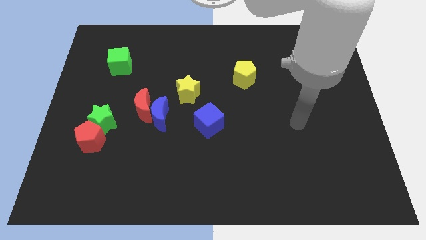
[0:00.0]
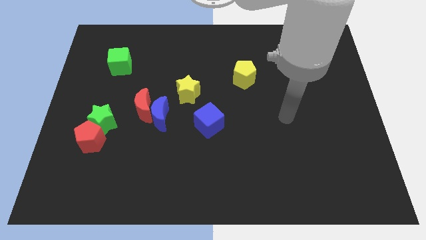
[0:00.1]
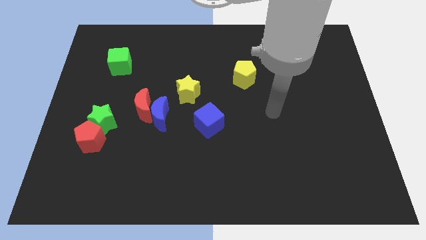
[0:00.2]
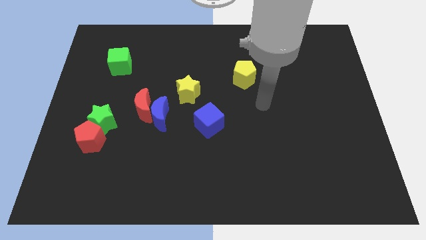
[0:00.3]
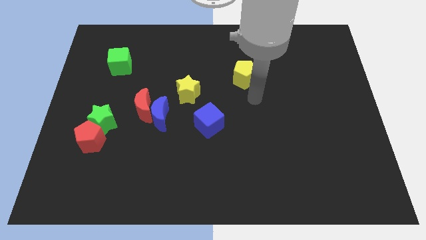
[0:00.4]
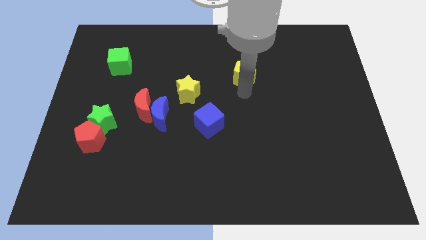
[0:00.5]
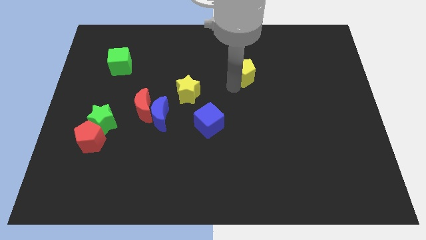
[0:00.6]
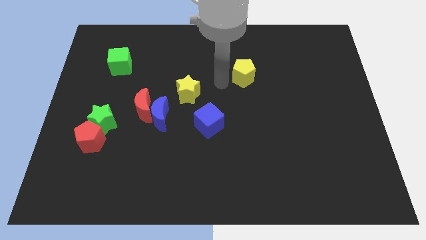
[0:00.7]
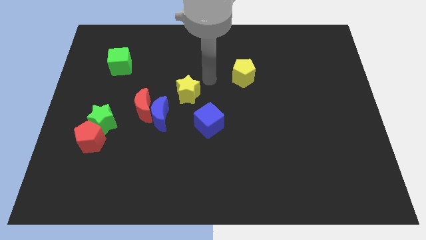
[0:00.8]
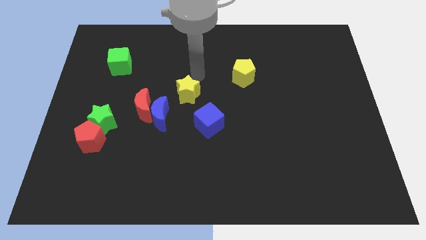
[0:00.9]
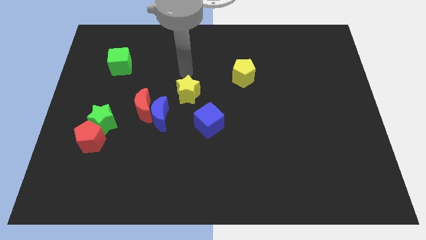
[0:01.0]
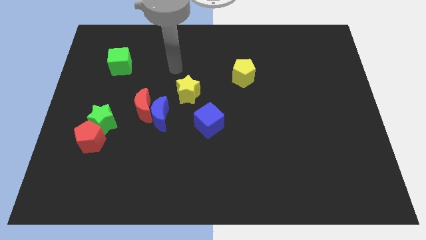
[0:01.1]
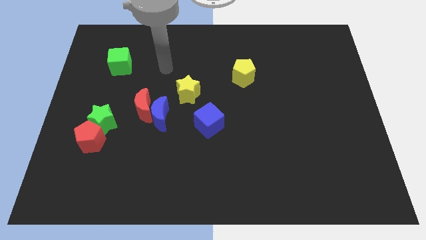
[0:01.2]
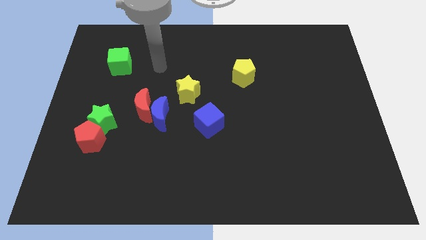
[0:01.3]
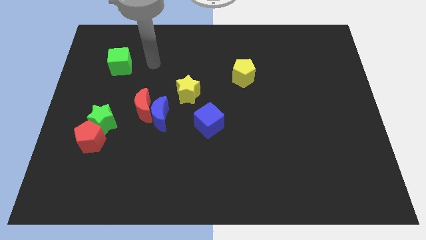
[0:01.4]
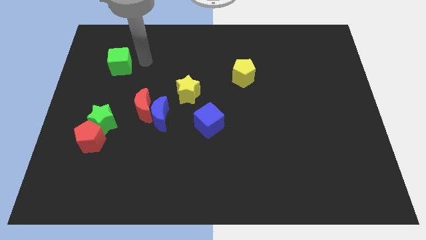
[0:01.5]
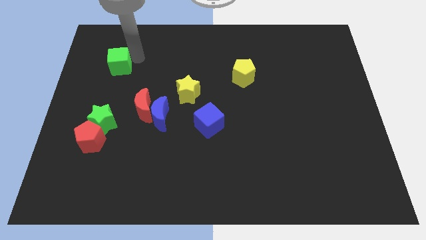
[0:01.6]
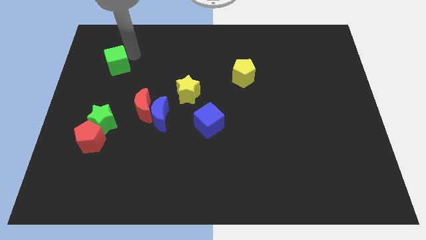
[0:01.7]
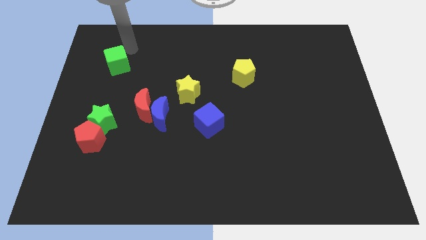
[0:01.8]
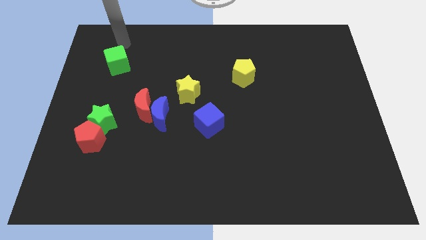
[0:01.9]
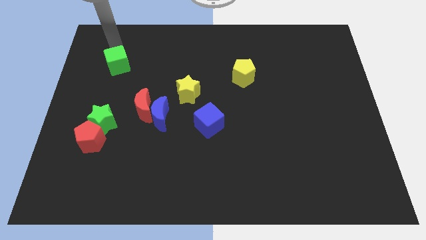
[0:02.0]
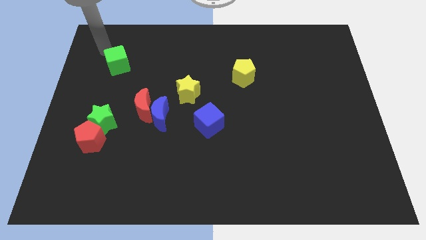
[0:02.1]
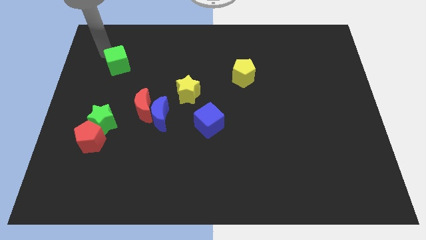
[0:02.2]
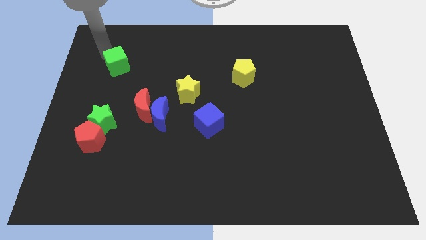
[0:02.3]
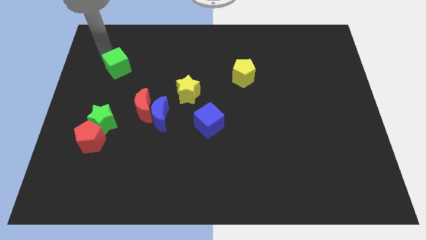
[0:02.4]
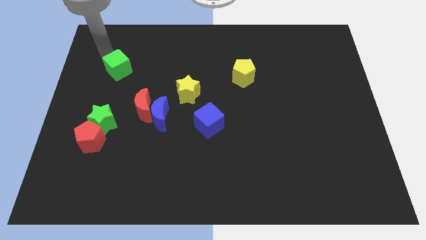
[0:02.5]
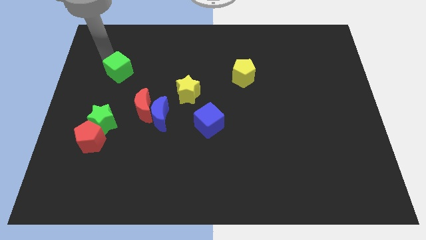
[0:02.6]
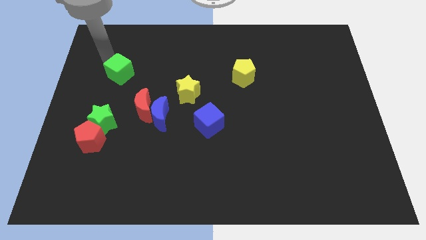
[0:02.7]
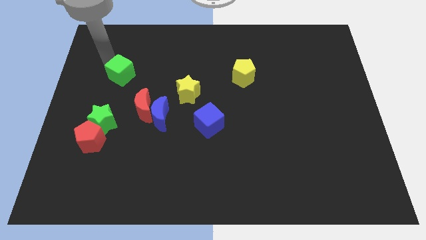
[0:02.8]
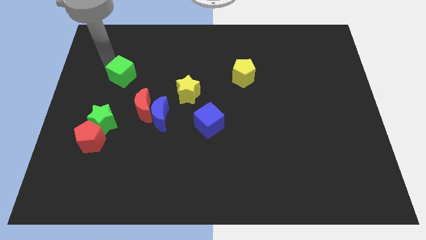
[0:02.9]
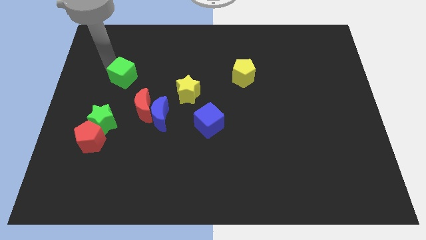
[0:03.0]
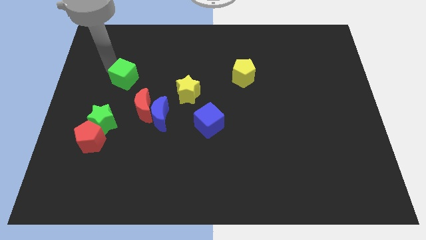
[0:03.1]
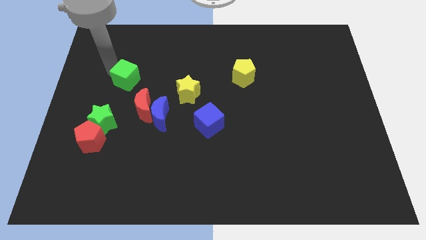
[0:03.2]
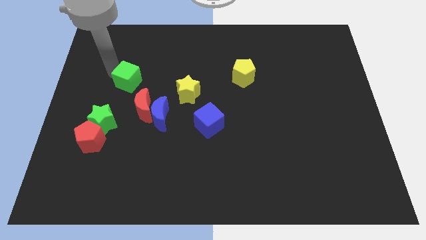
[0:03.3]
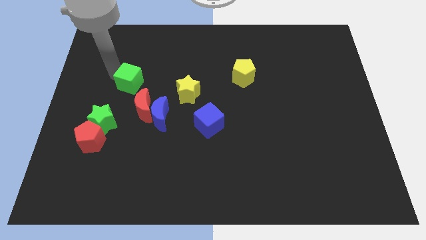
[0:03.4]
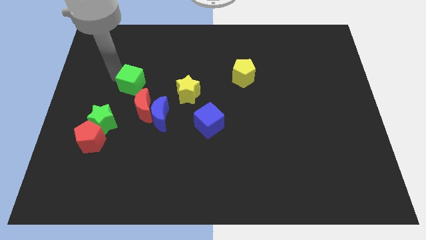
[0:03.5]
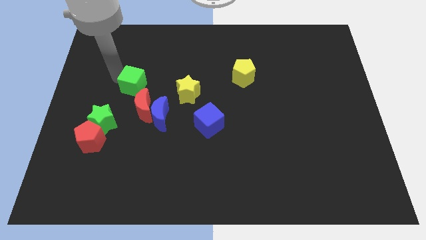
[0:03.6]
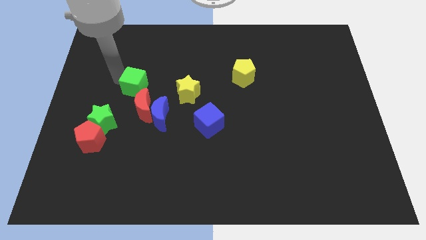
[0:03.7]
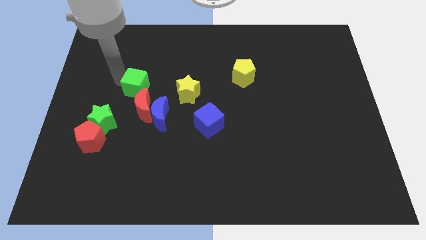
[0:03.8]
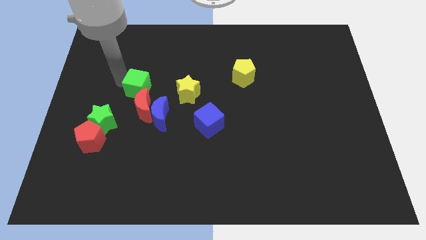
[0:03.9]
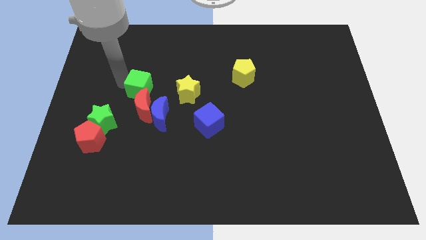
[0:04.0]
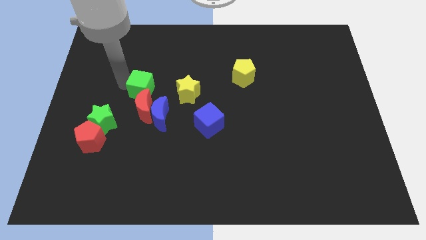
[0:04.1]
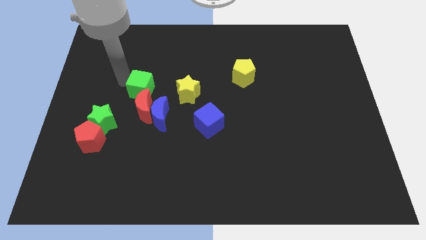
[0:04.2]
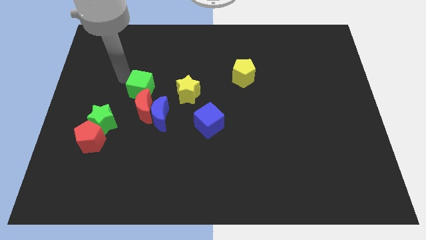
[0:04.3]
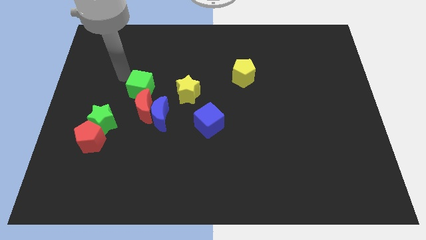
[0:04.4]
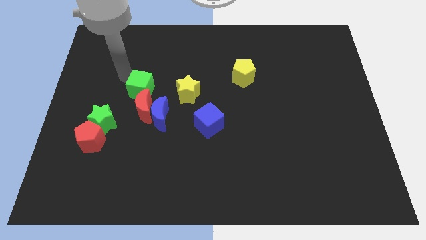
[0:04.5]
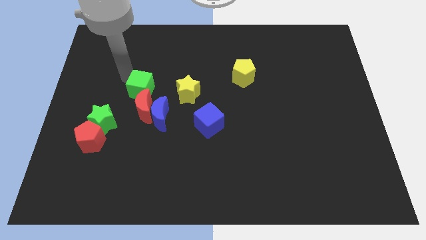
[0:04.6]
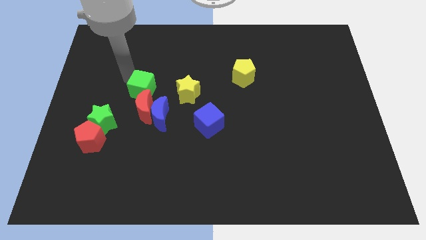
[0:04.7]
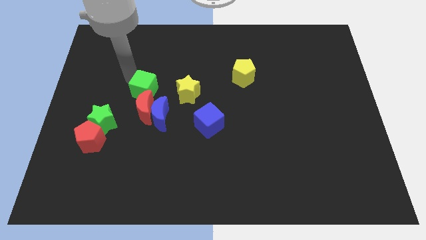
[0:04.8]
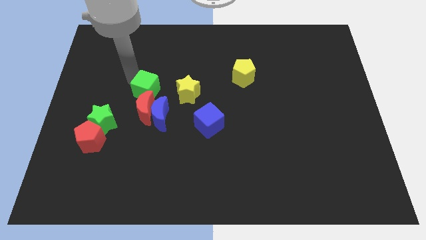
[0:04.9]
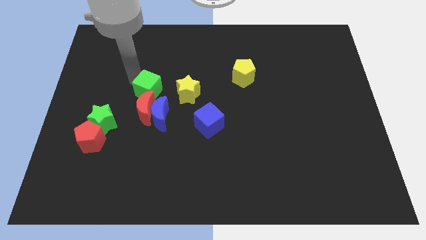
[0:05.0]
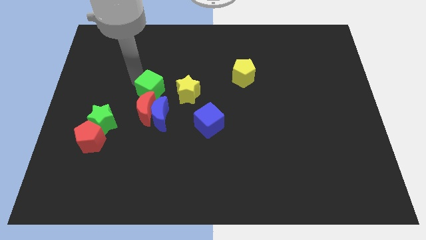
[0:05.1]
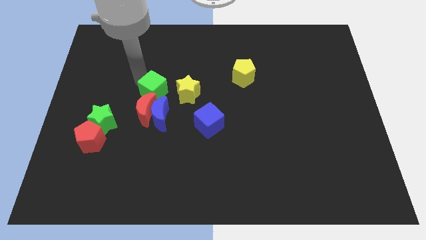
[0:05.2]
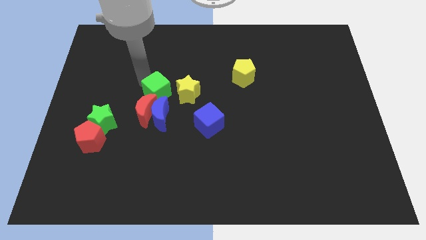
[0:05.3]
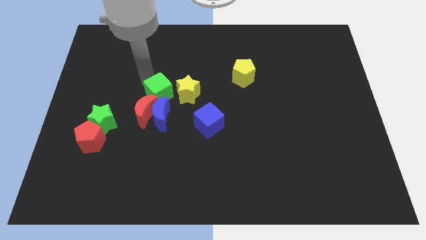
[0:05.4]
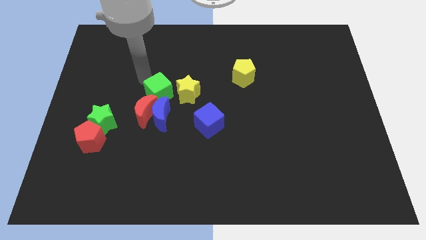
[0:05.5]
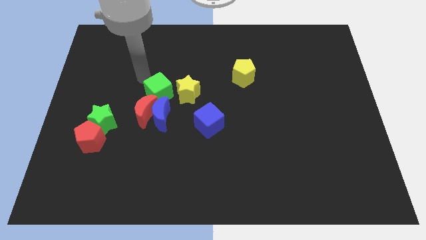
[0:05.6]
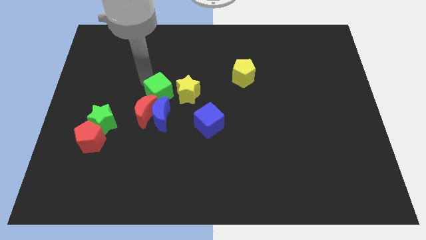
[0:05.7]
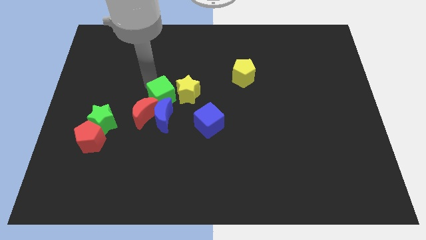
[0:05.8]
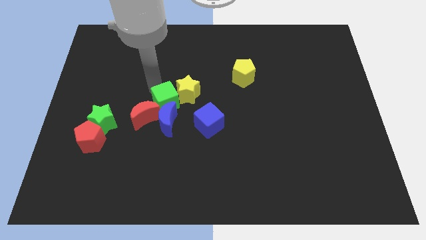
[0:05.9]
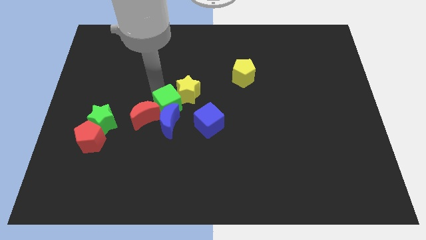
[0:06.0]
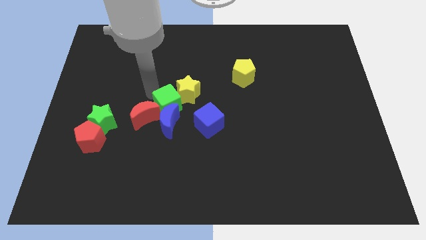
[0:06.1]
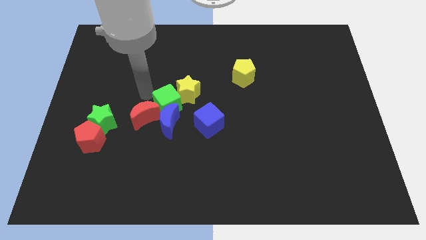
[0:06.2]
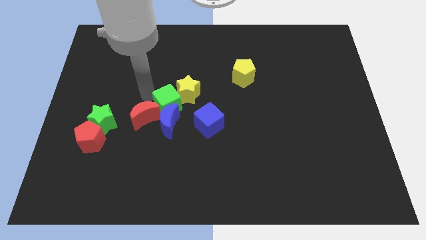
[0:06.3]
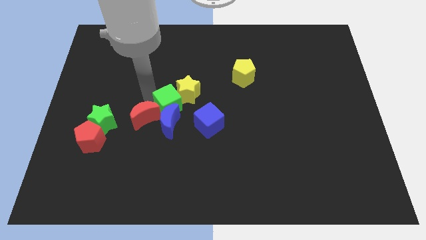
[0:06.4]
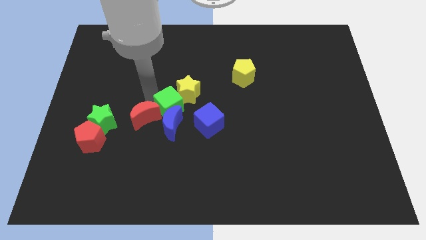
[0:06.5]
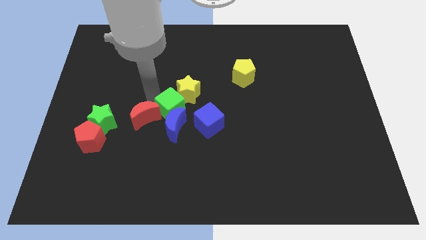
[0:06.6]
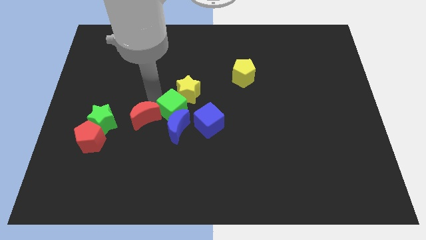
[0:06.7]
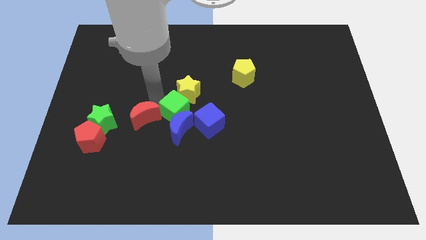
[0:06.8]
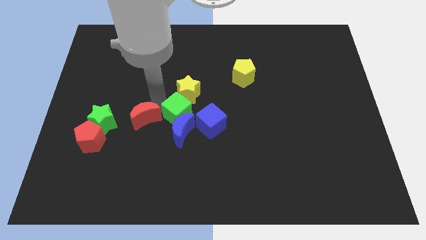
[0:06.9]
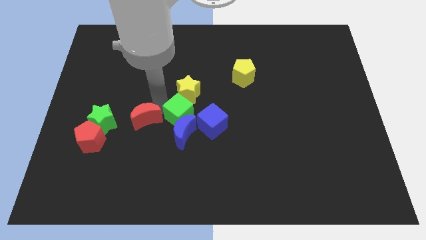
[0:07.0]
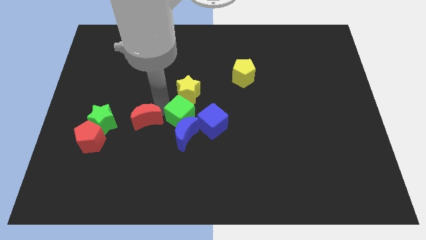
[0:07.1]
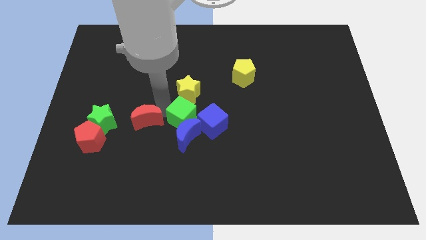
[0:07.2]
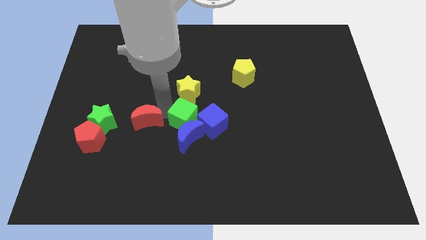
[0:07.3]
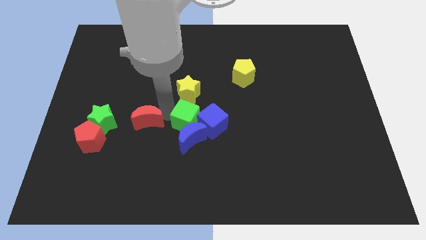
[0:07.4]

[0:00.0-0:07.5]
push the green cube next to the blue cube

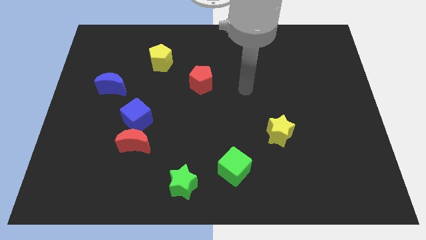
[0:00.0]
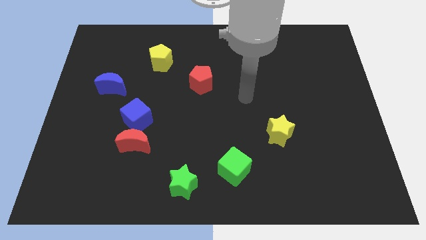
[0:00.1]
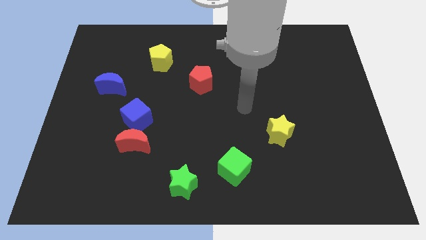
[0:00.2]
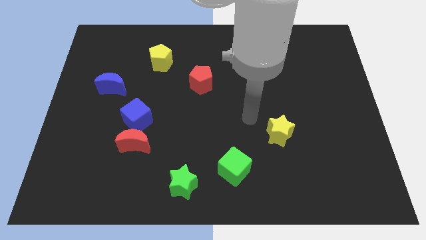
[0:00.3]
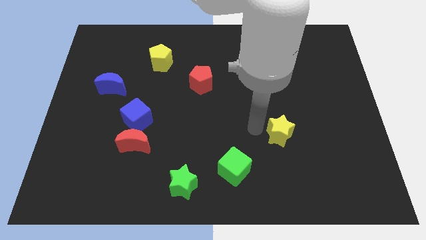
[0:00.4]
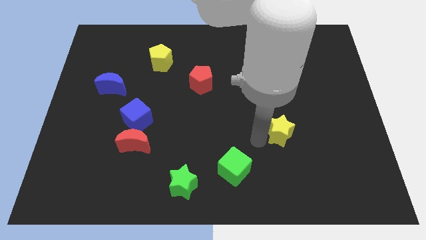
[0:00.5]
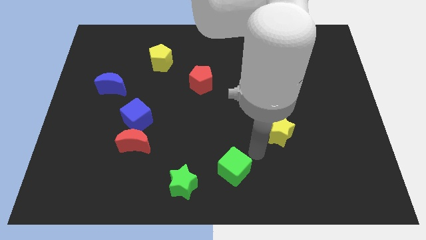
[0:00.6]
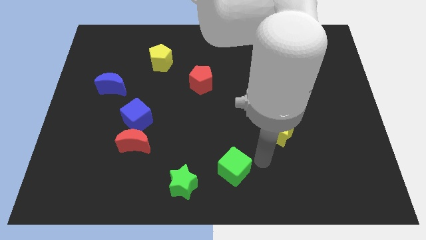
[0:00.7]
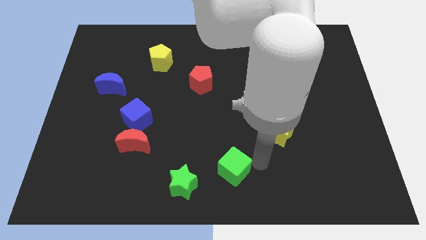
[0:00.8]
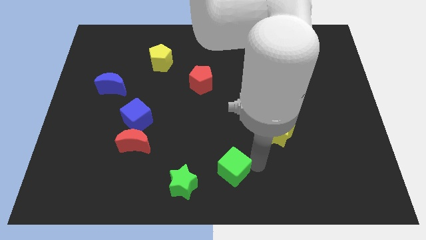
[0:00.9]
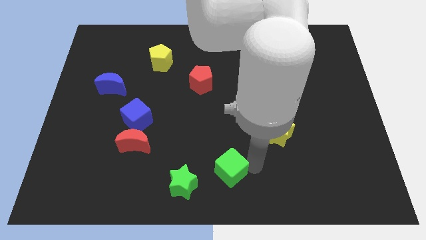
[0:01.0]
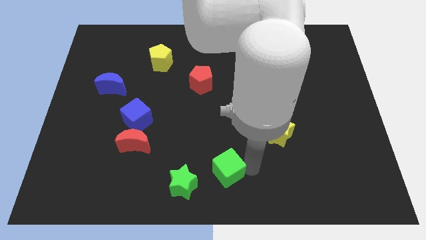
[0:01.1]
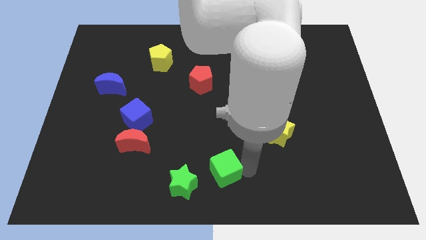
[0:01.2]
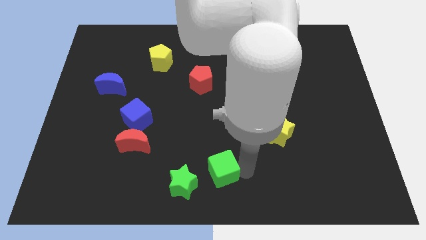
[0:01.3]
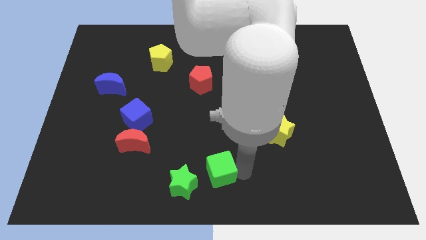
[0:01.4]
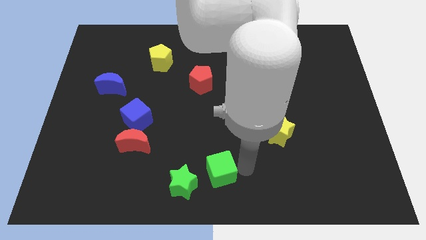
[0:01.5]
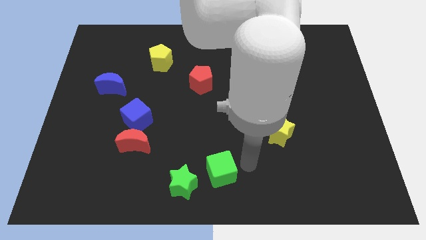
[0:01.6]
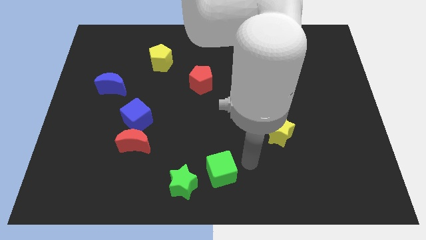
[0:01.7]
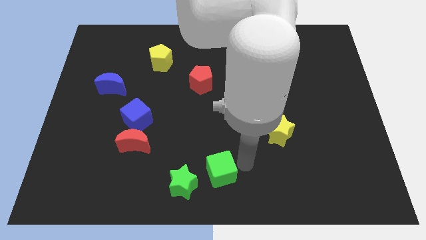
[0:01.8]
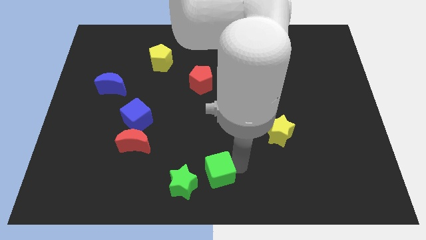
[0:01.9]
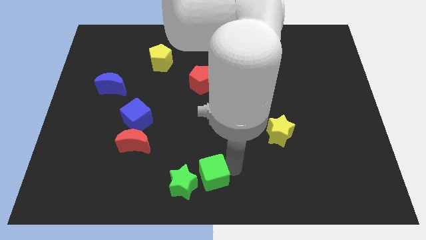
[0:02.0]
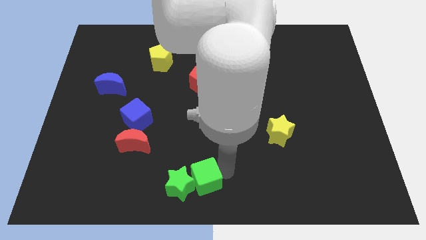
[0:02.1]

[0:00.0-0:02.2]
move the green cube next to the green star
